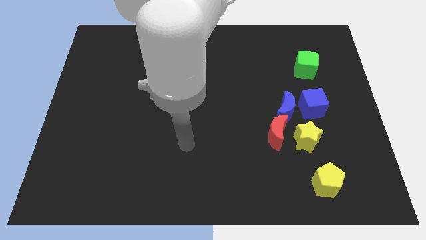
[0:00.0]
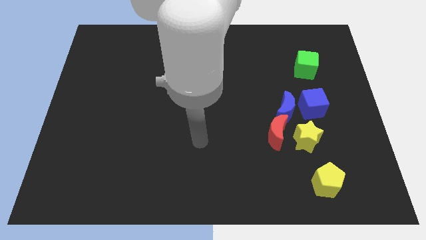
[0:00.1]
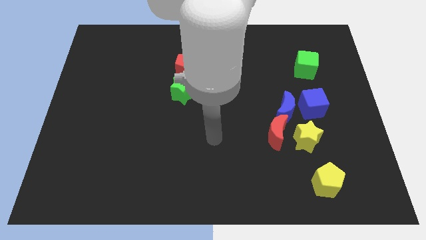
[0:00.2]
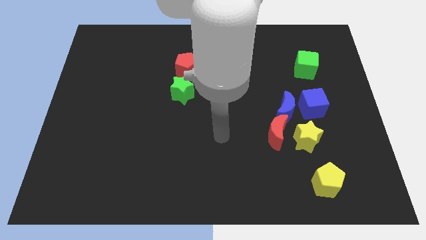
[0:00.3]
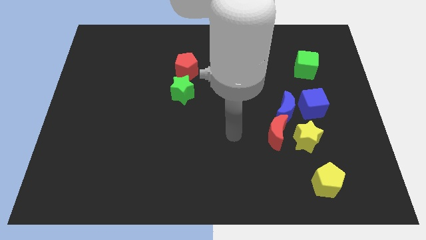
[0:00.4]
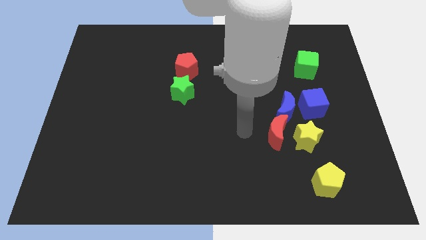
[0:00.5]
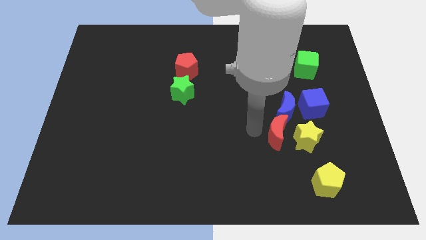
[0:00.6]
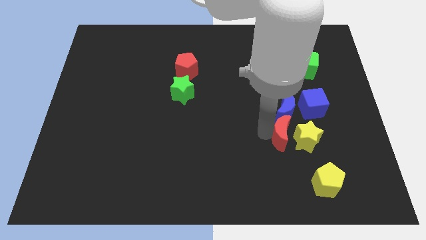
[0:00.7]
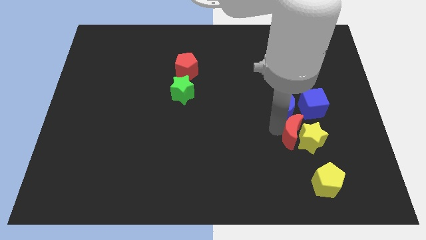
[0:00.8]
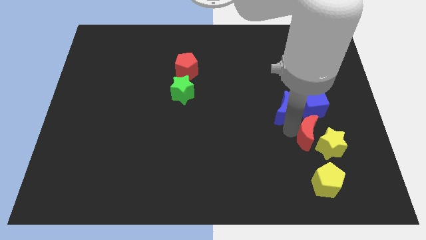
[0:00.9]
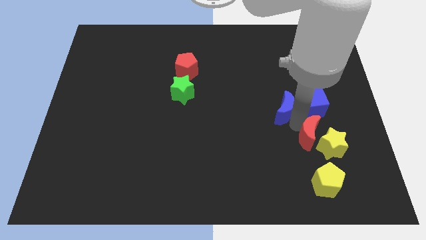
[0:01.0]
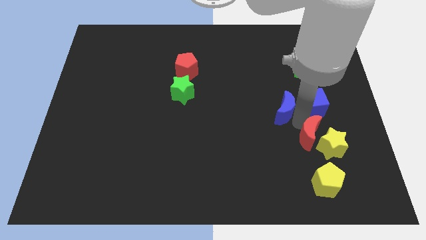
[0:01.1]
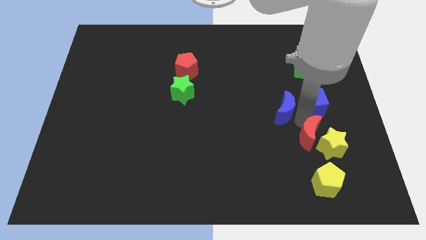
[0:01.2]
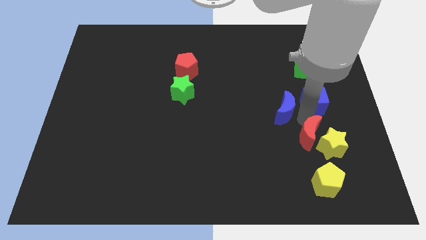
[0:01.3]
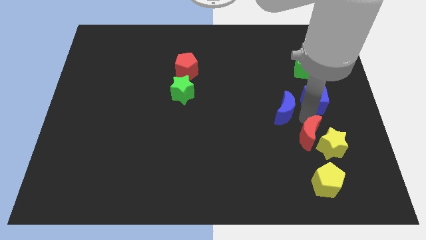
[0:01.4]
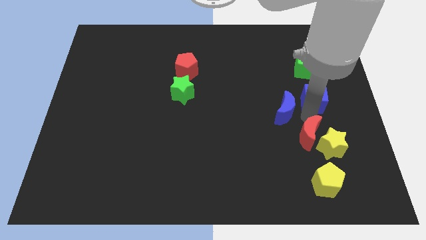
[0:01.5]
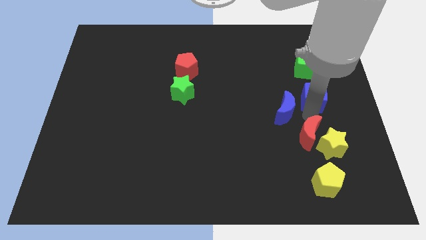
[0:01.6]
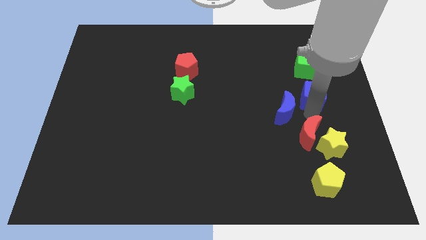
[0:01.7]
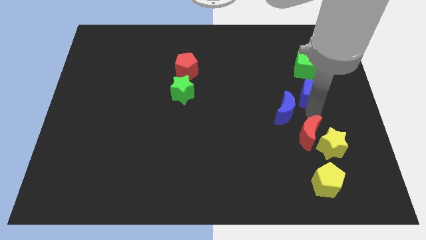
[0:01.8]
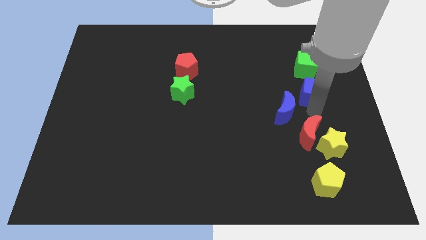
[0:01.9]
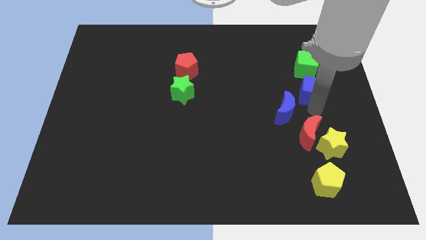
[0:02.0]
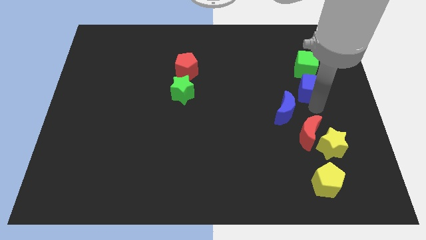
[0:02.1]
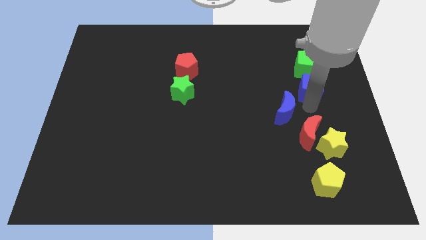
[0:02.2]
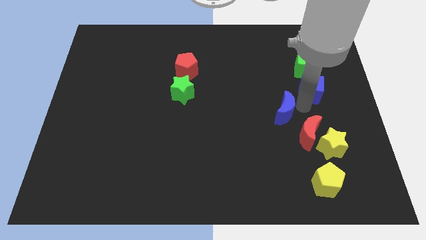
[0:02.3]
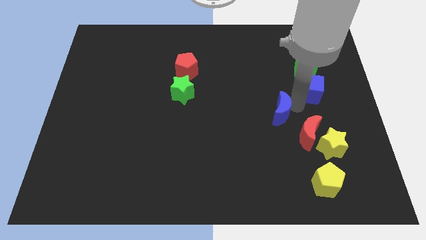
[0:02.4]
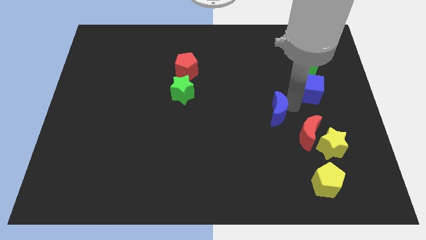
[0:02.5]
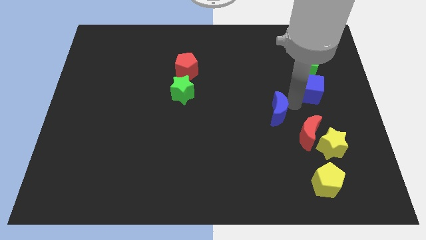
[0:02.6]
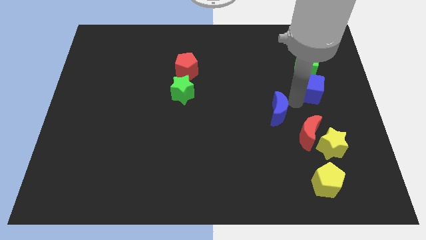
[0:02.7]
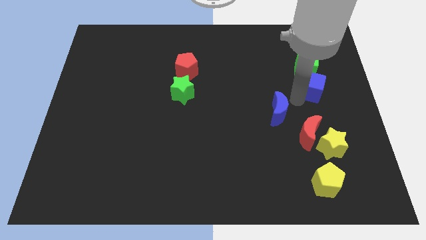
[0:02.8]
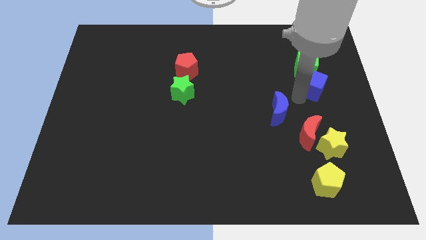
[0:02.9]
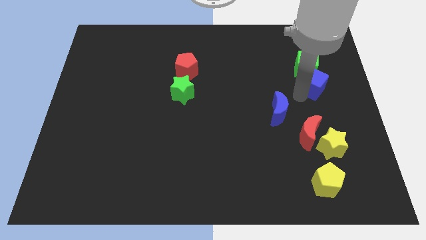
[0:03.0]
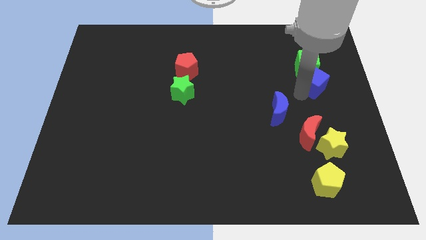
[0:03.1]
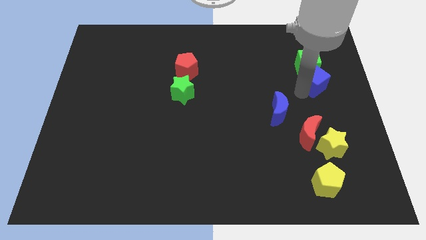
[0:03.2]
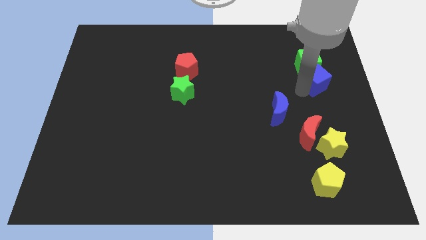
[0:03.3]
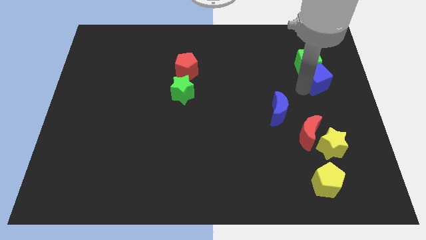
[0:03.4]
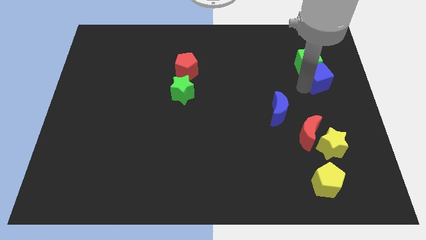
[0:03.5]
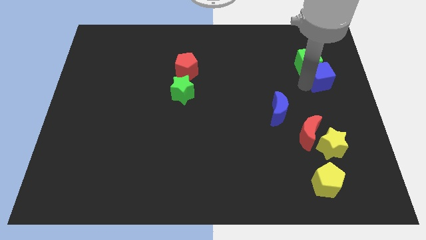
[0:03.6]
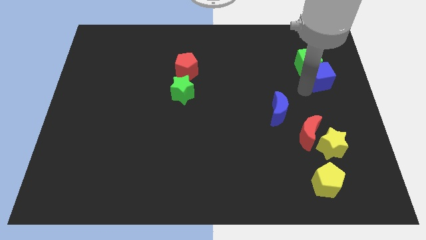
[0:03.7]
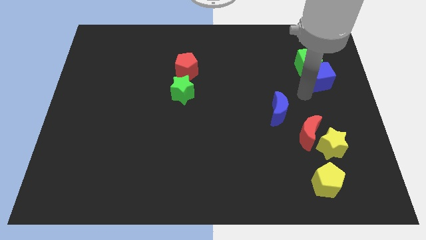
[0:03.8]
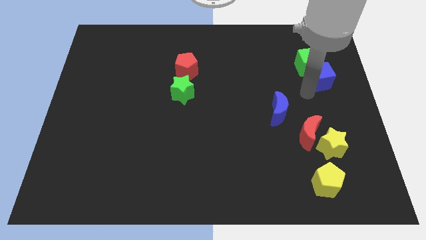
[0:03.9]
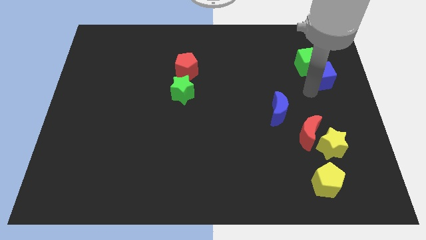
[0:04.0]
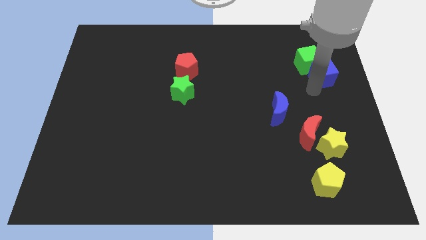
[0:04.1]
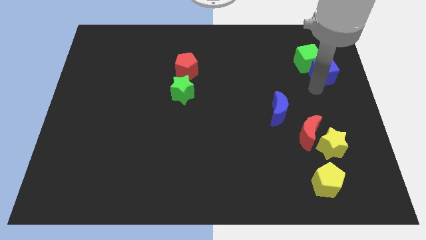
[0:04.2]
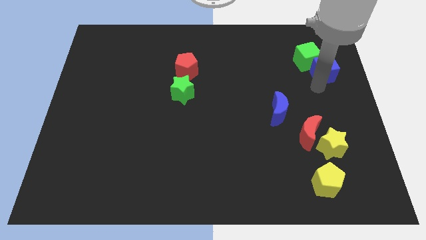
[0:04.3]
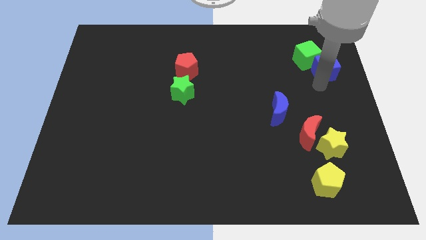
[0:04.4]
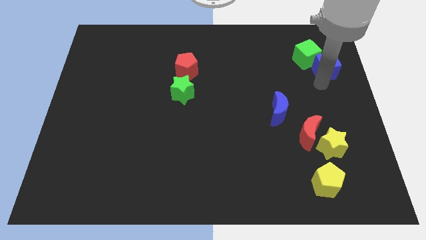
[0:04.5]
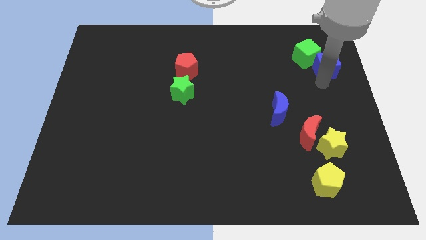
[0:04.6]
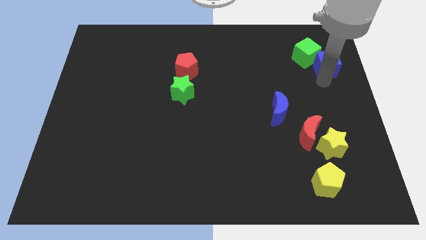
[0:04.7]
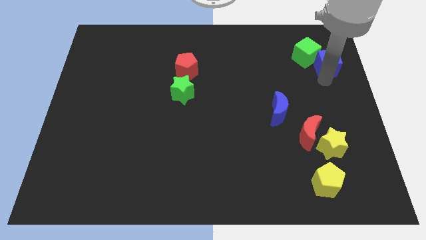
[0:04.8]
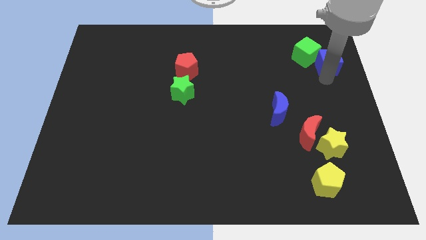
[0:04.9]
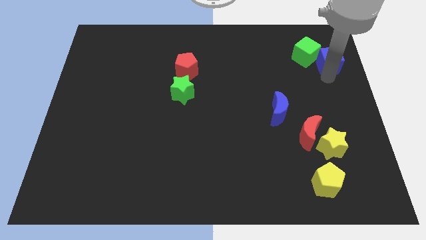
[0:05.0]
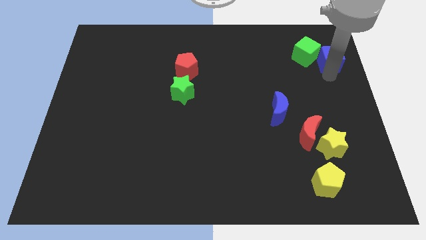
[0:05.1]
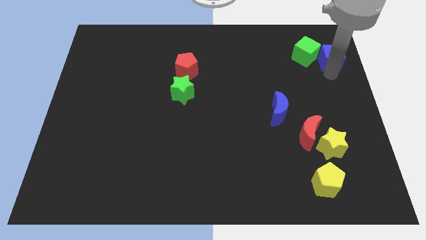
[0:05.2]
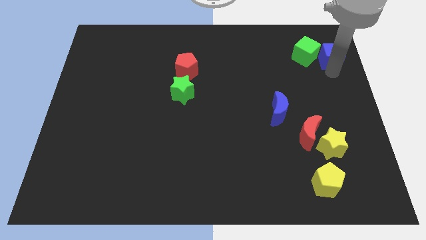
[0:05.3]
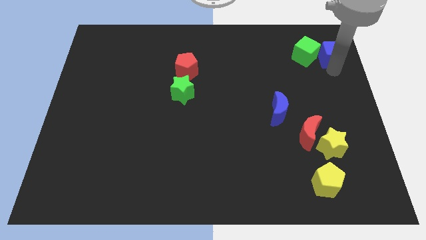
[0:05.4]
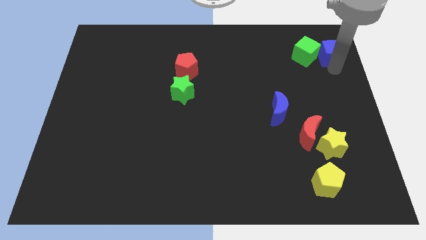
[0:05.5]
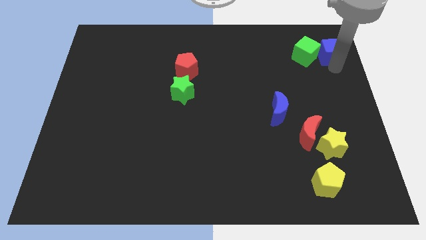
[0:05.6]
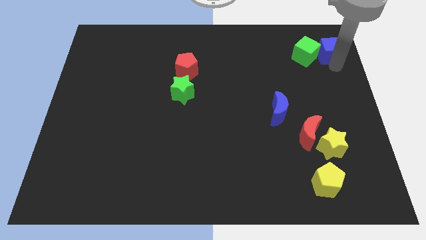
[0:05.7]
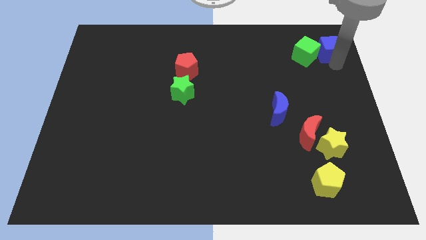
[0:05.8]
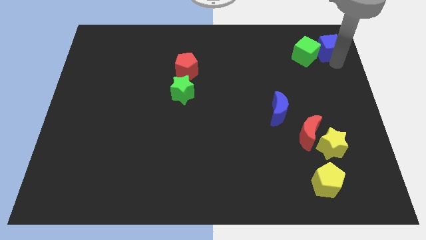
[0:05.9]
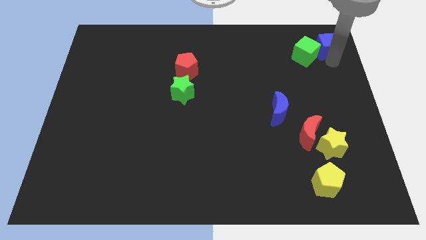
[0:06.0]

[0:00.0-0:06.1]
slide the blue cube to the top right of the board

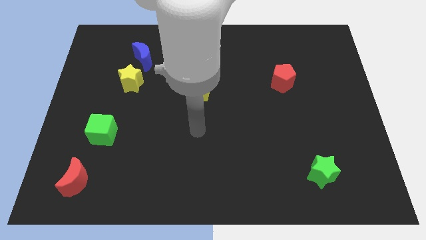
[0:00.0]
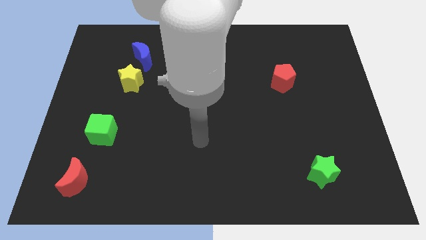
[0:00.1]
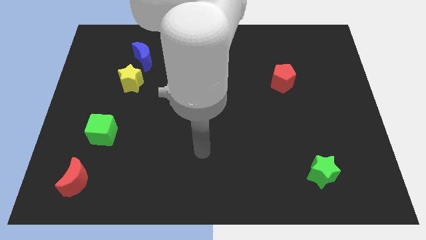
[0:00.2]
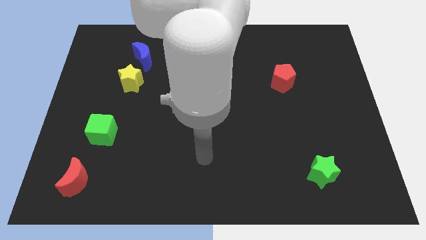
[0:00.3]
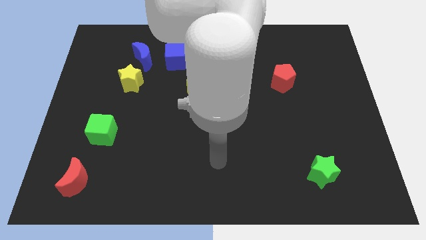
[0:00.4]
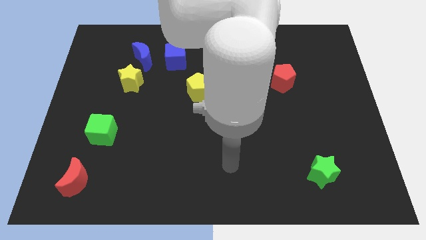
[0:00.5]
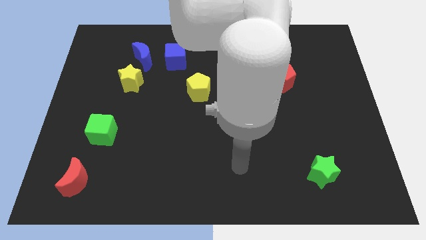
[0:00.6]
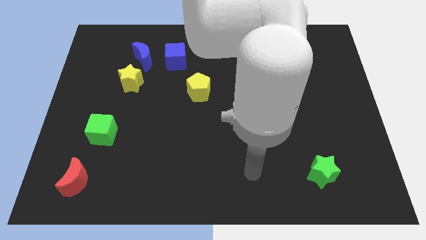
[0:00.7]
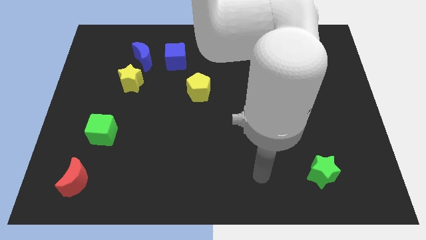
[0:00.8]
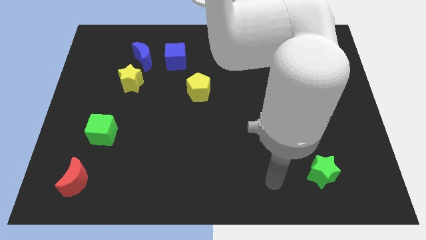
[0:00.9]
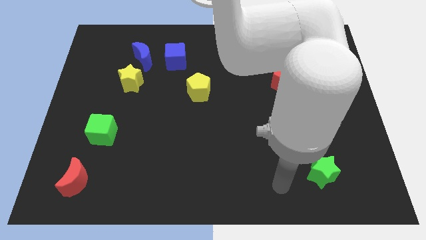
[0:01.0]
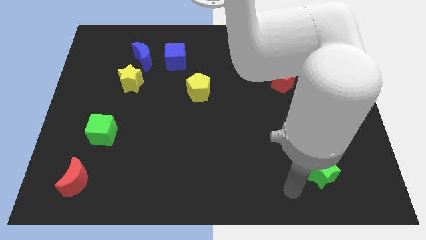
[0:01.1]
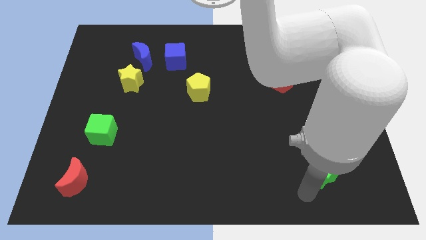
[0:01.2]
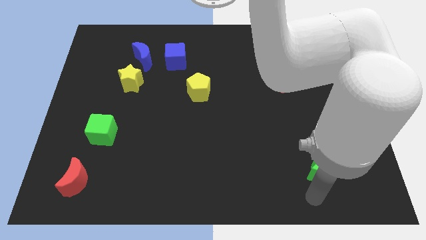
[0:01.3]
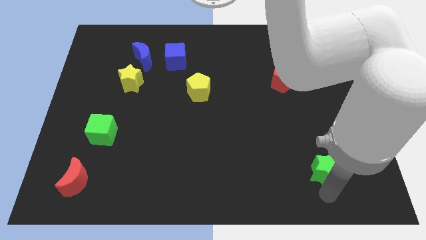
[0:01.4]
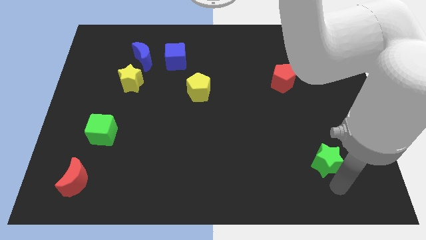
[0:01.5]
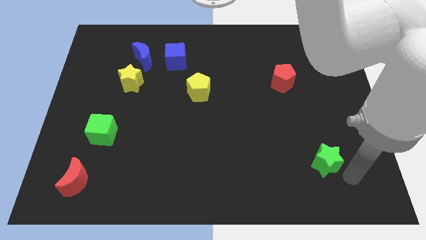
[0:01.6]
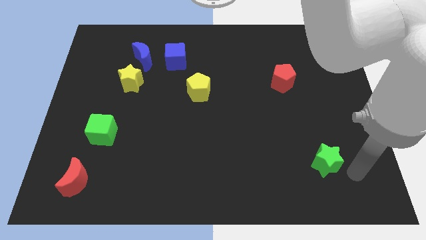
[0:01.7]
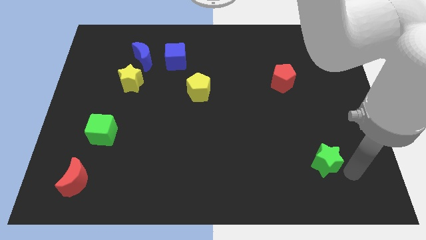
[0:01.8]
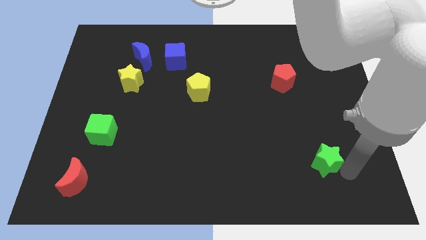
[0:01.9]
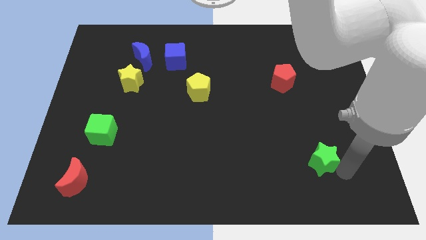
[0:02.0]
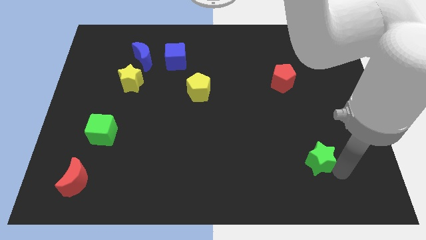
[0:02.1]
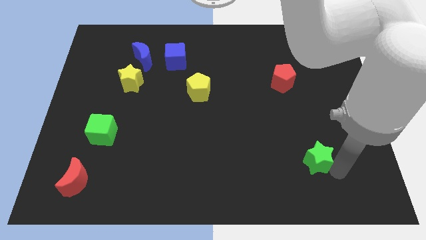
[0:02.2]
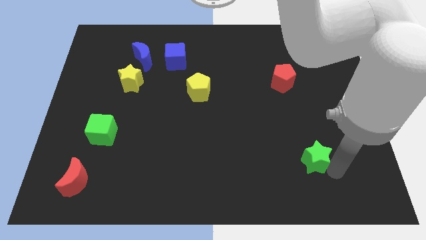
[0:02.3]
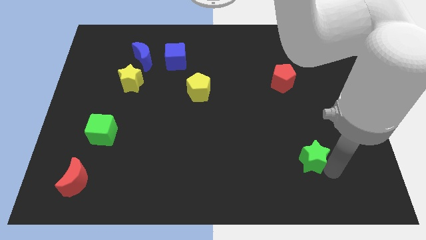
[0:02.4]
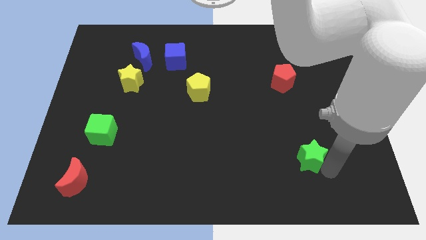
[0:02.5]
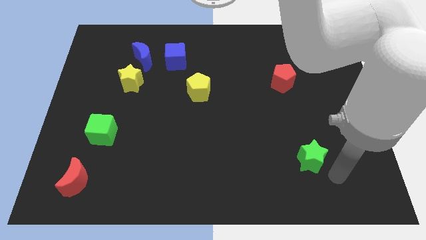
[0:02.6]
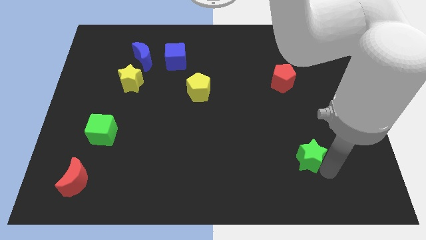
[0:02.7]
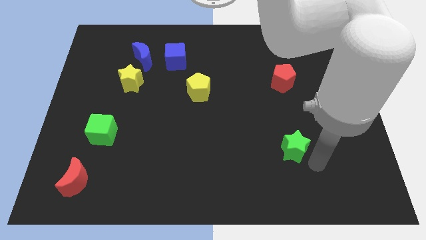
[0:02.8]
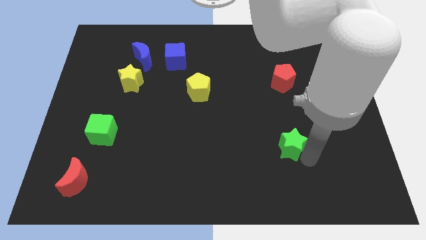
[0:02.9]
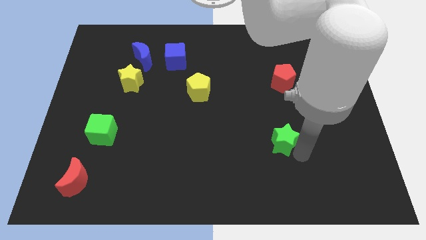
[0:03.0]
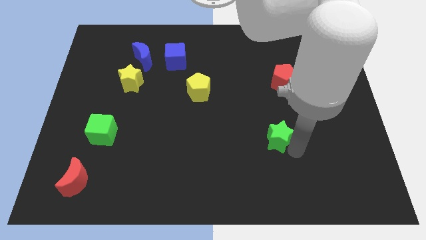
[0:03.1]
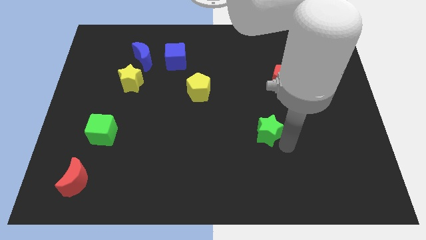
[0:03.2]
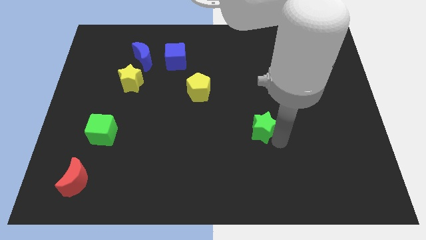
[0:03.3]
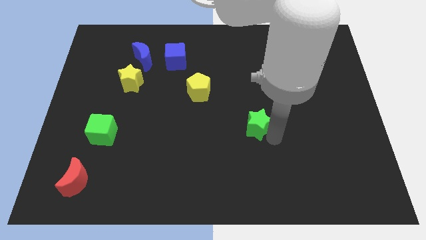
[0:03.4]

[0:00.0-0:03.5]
put the green star to the middle
